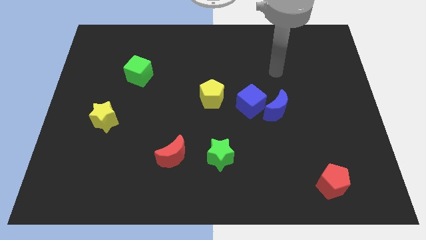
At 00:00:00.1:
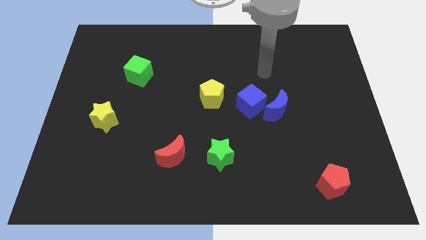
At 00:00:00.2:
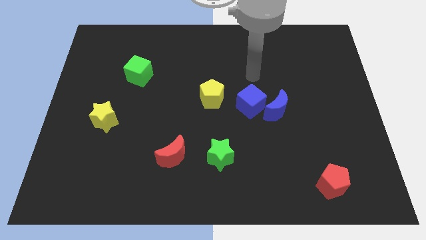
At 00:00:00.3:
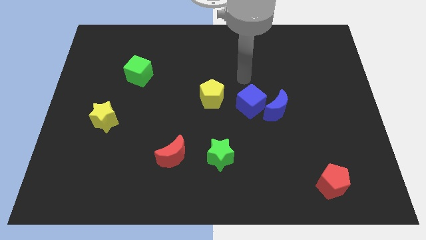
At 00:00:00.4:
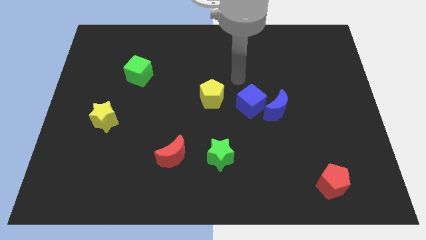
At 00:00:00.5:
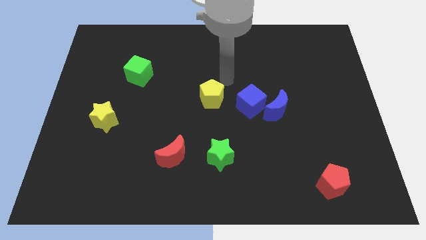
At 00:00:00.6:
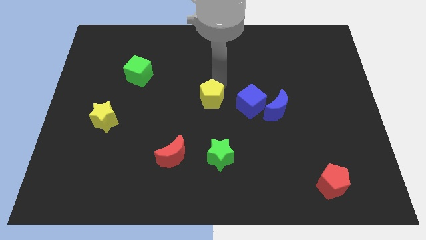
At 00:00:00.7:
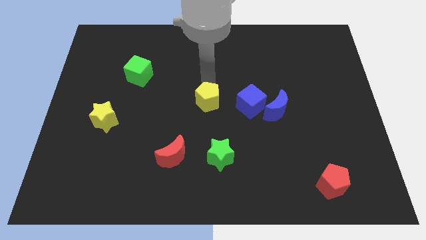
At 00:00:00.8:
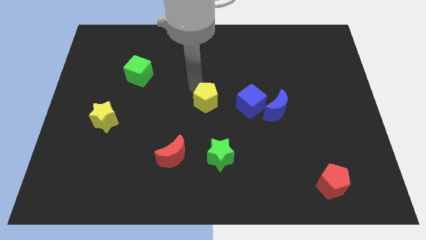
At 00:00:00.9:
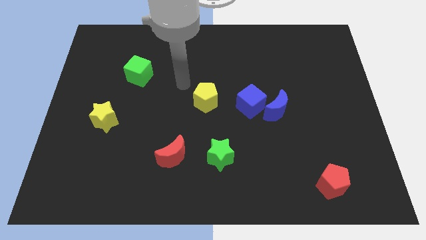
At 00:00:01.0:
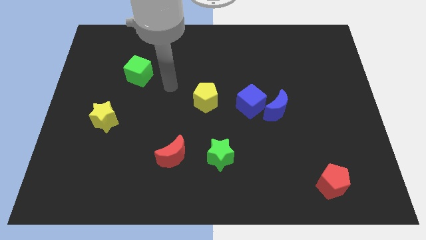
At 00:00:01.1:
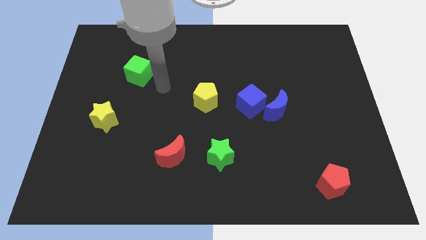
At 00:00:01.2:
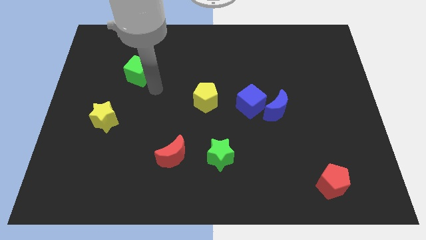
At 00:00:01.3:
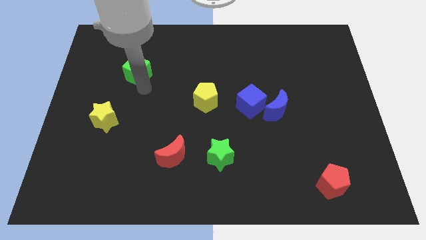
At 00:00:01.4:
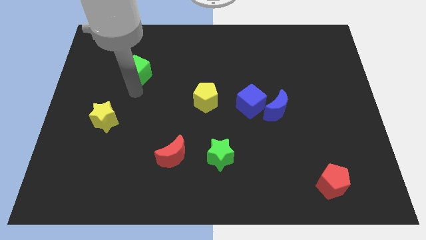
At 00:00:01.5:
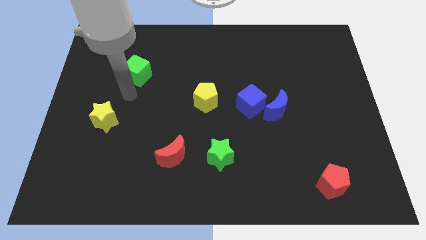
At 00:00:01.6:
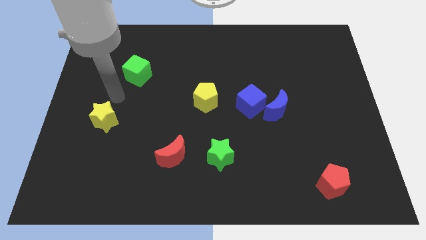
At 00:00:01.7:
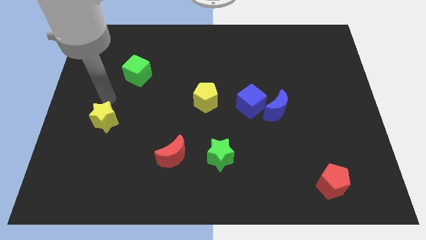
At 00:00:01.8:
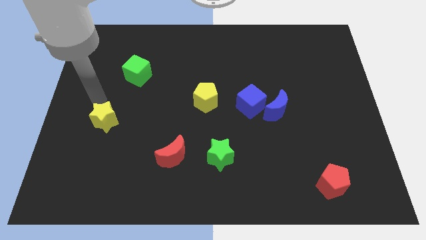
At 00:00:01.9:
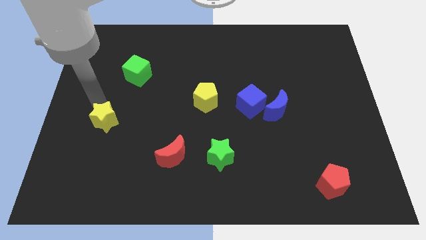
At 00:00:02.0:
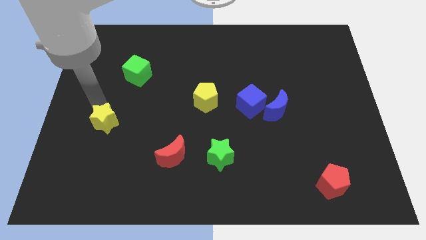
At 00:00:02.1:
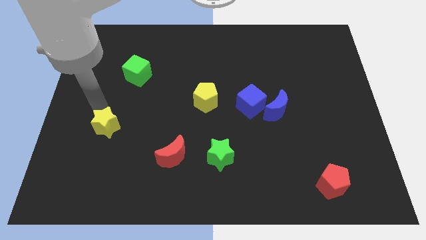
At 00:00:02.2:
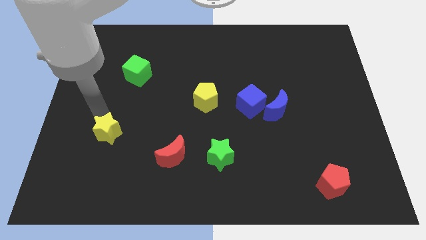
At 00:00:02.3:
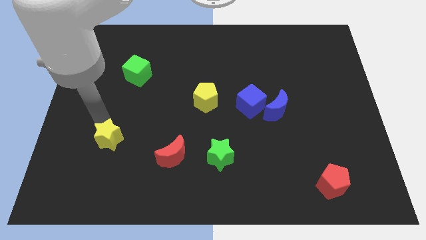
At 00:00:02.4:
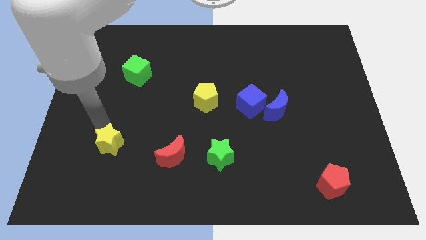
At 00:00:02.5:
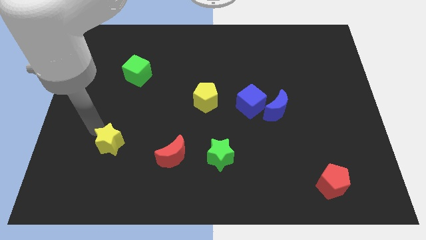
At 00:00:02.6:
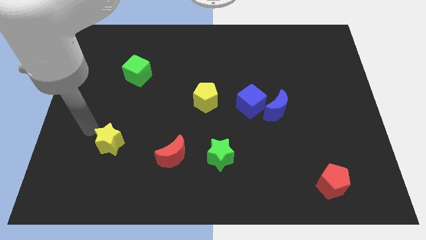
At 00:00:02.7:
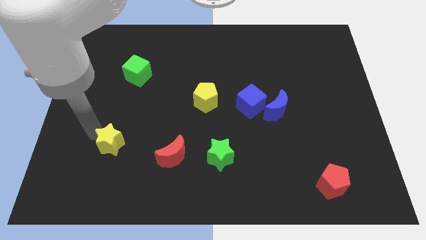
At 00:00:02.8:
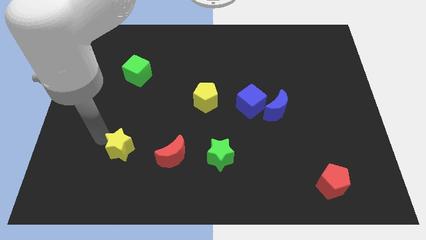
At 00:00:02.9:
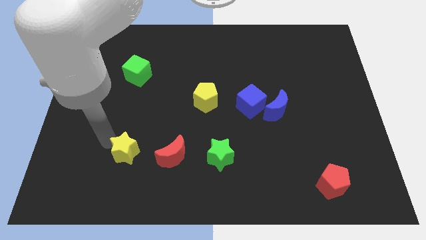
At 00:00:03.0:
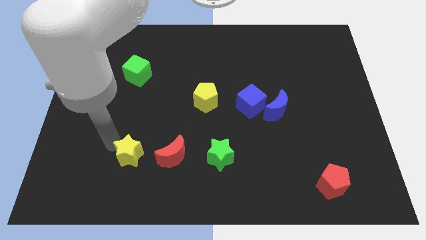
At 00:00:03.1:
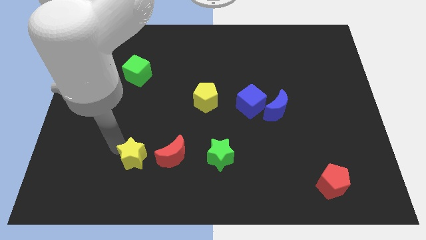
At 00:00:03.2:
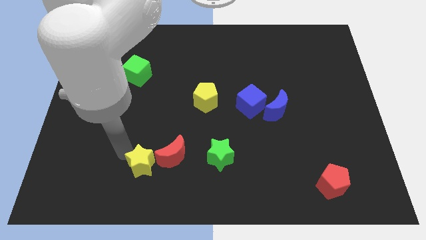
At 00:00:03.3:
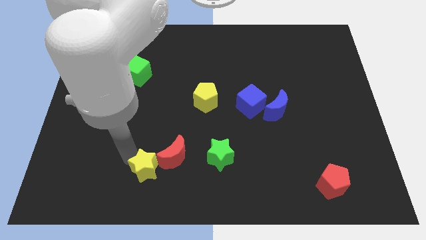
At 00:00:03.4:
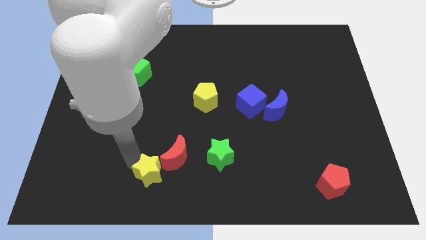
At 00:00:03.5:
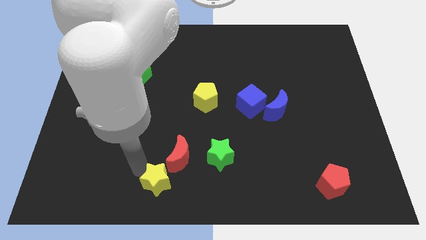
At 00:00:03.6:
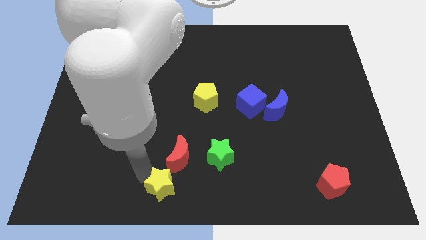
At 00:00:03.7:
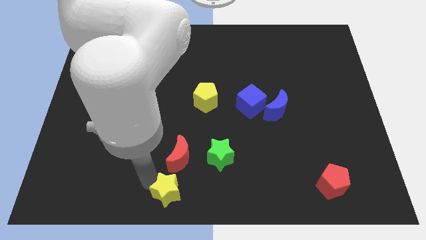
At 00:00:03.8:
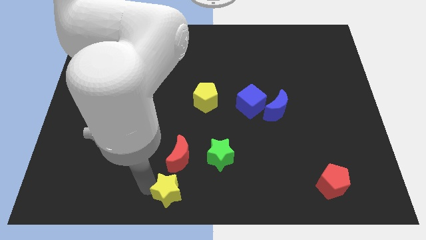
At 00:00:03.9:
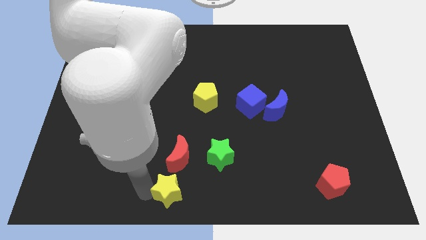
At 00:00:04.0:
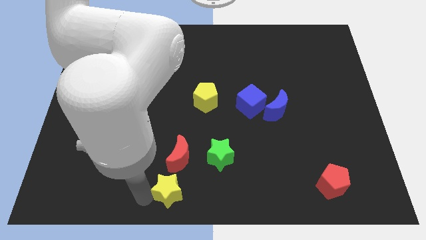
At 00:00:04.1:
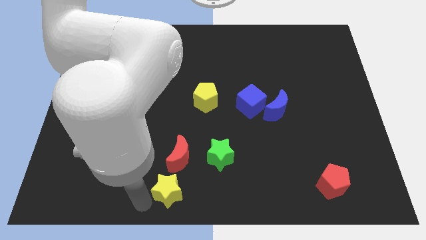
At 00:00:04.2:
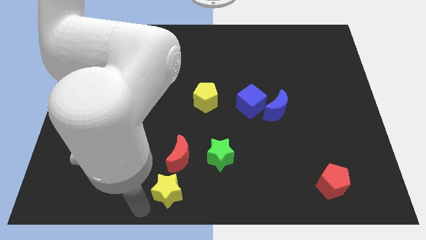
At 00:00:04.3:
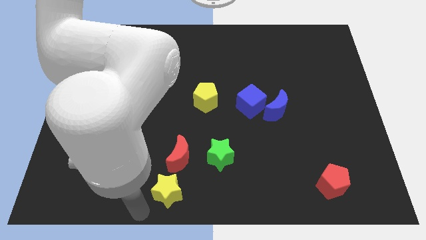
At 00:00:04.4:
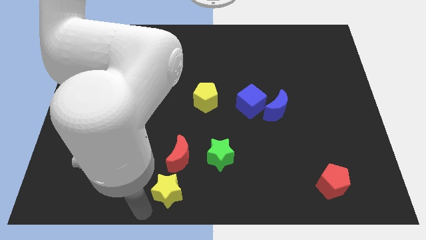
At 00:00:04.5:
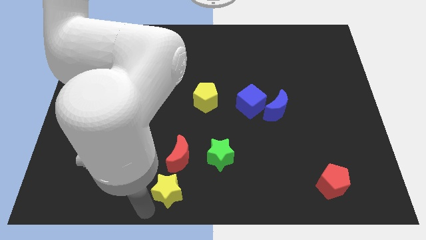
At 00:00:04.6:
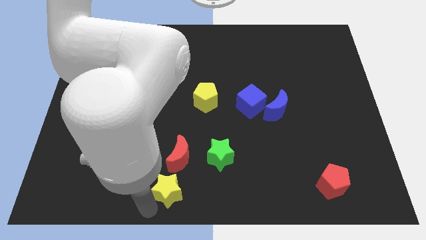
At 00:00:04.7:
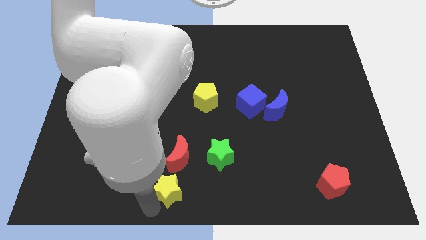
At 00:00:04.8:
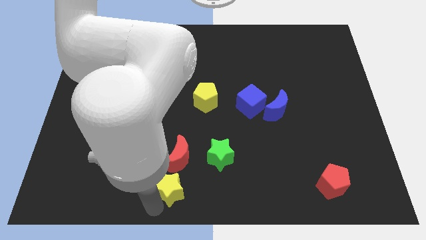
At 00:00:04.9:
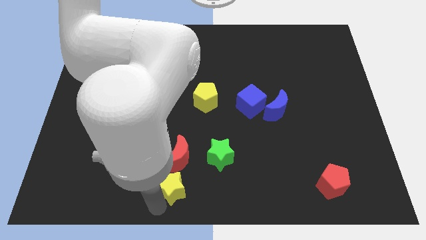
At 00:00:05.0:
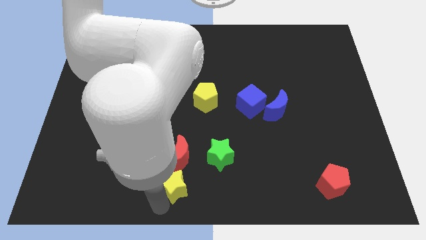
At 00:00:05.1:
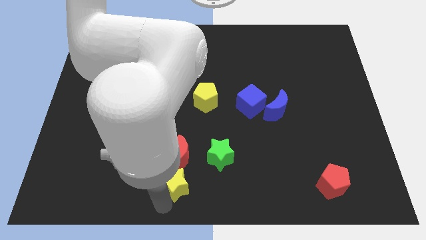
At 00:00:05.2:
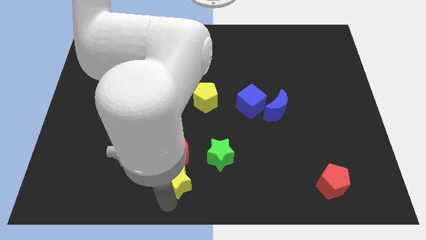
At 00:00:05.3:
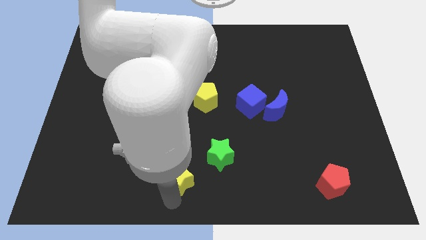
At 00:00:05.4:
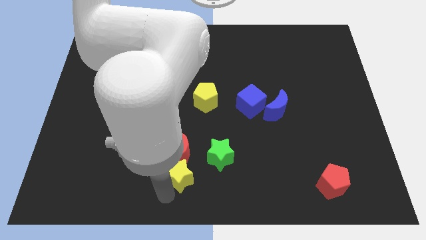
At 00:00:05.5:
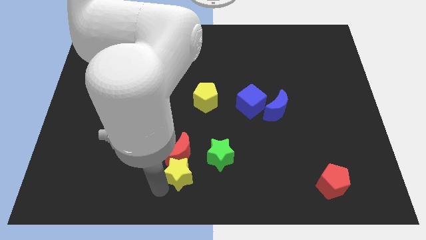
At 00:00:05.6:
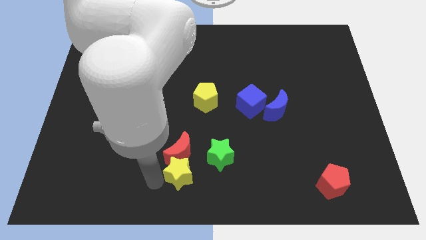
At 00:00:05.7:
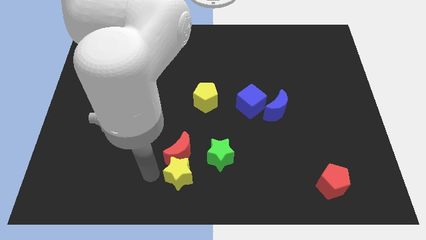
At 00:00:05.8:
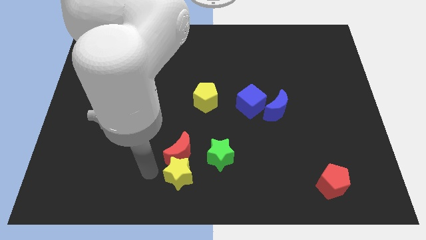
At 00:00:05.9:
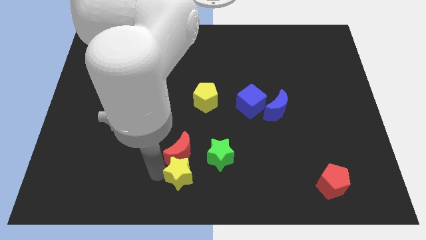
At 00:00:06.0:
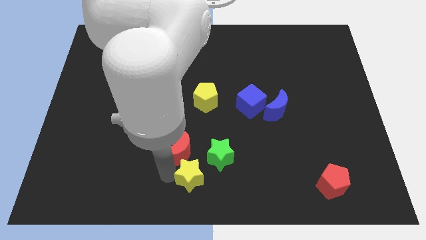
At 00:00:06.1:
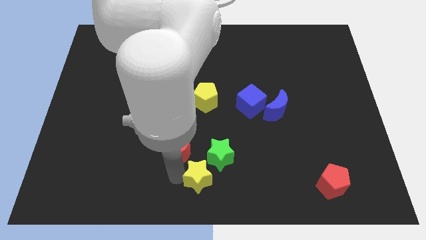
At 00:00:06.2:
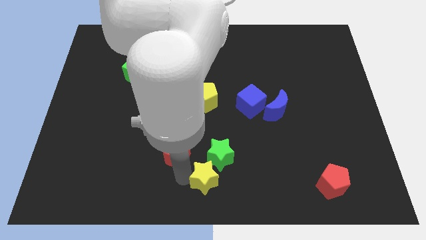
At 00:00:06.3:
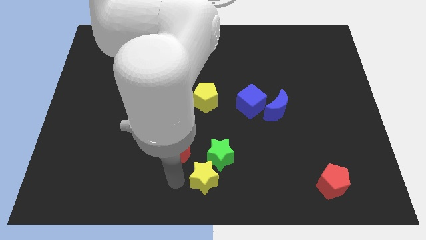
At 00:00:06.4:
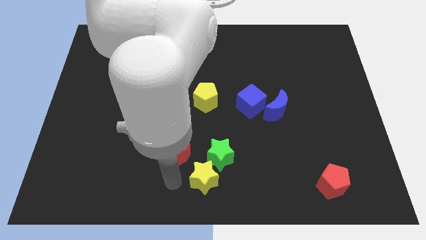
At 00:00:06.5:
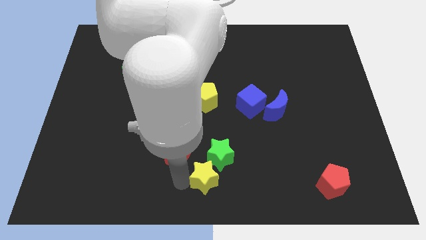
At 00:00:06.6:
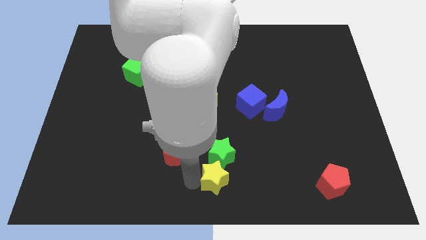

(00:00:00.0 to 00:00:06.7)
push the yellow star to the bottom right side of the green star

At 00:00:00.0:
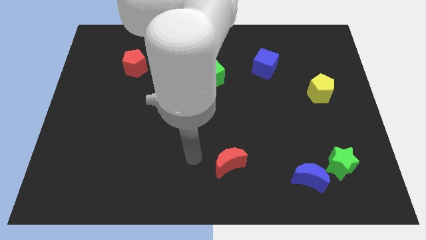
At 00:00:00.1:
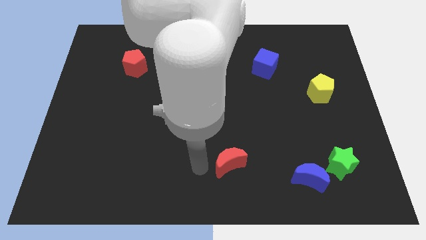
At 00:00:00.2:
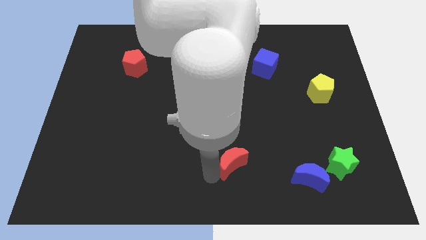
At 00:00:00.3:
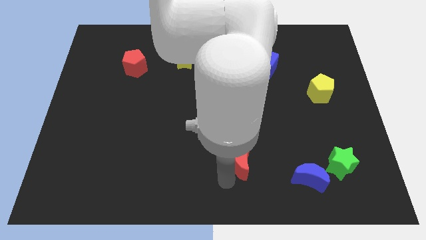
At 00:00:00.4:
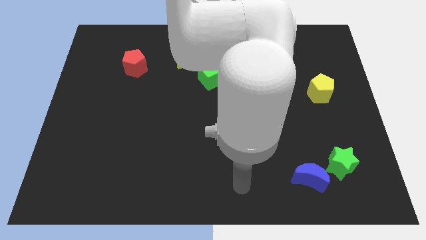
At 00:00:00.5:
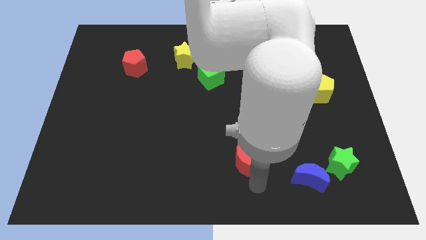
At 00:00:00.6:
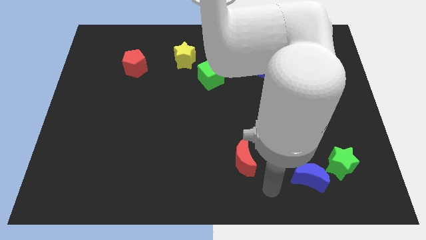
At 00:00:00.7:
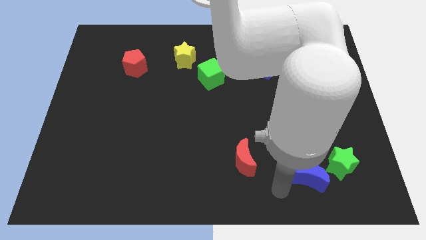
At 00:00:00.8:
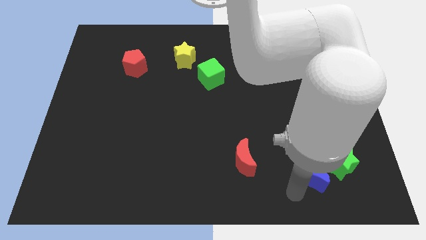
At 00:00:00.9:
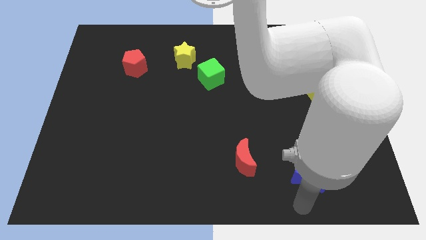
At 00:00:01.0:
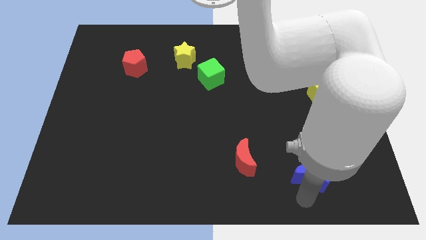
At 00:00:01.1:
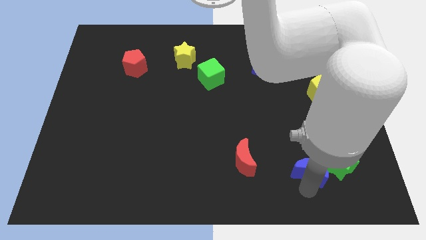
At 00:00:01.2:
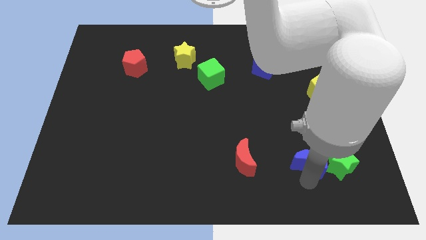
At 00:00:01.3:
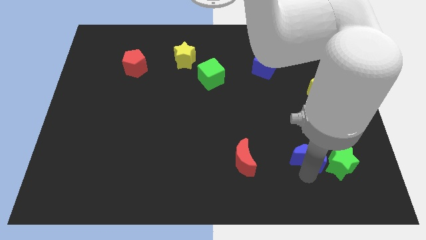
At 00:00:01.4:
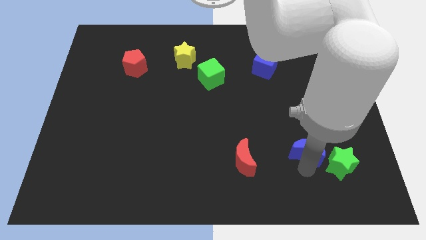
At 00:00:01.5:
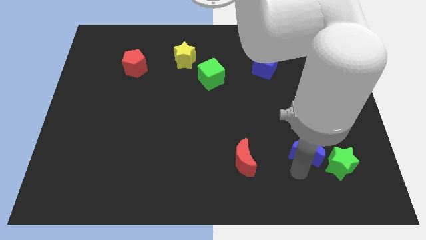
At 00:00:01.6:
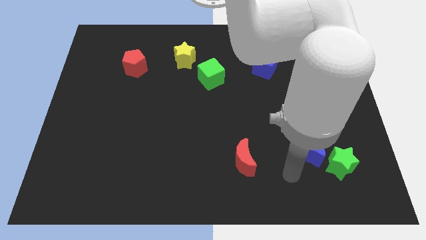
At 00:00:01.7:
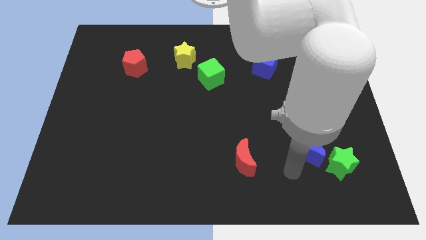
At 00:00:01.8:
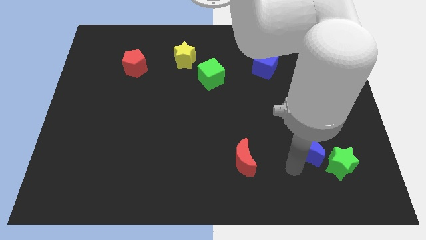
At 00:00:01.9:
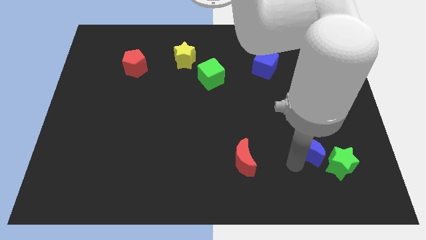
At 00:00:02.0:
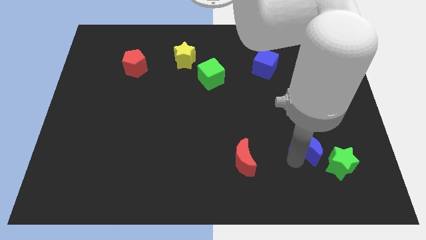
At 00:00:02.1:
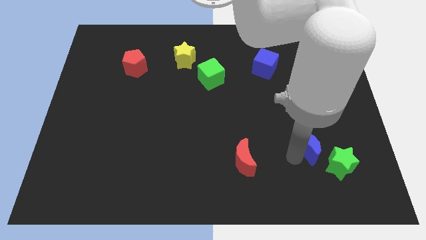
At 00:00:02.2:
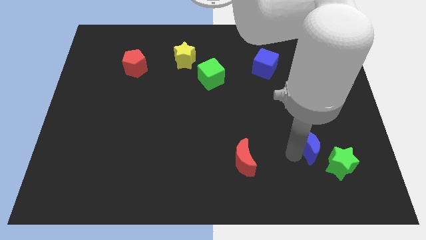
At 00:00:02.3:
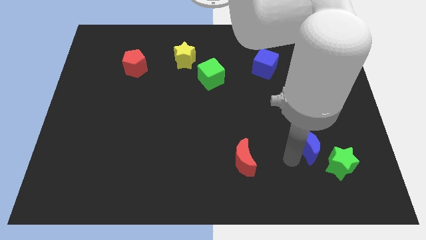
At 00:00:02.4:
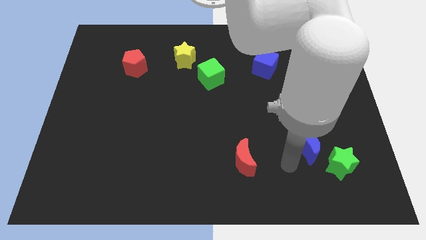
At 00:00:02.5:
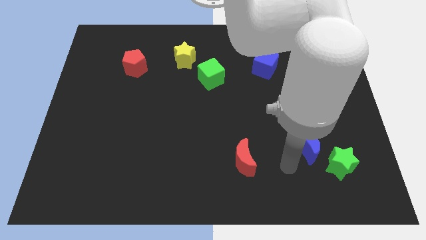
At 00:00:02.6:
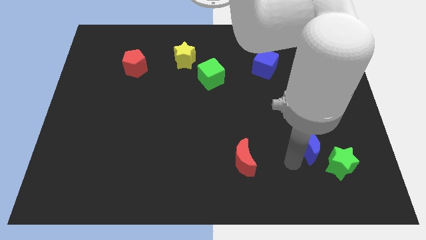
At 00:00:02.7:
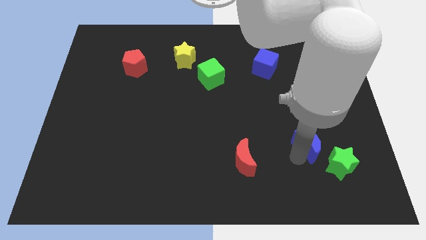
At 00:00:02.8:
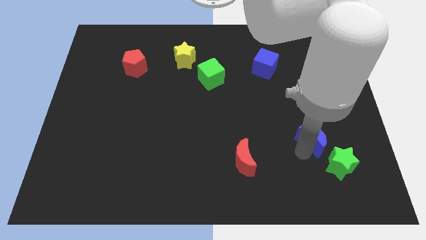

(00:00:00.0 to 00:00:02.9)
put the blue moon to the bottom side of the yellow pentagon
